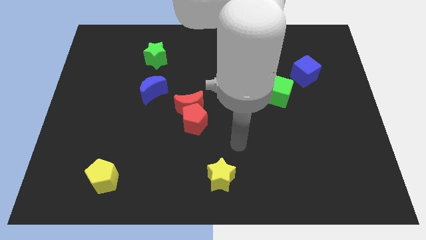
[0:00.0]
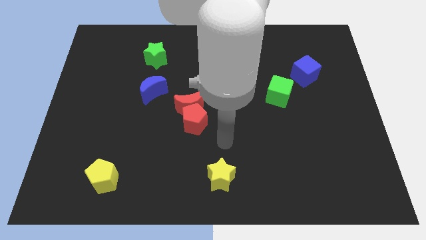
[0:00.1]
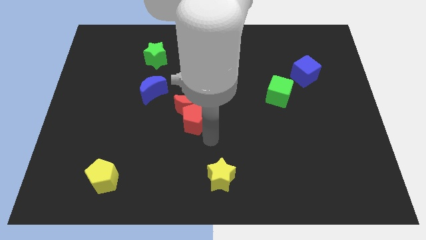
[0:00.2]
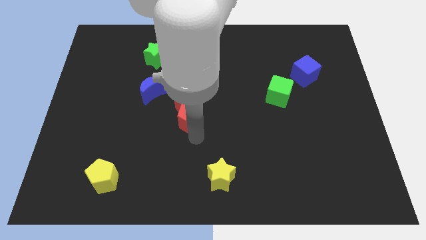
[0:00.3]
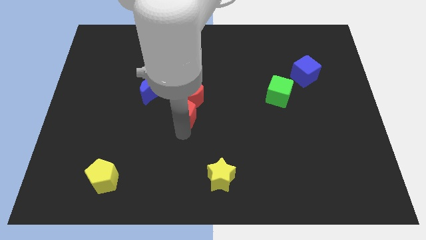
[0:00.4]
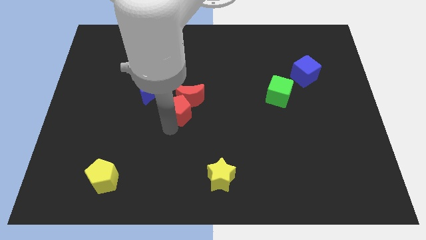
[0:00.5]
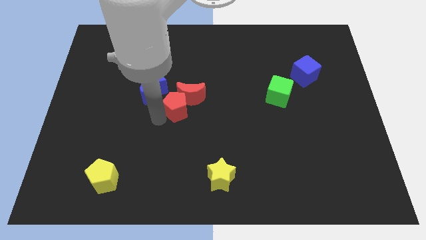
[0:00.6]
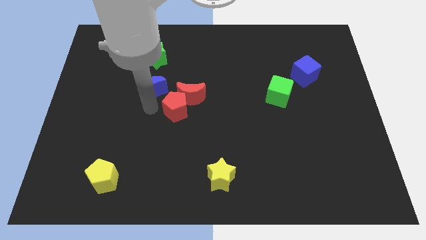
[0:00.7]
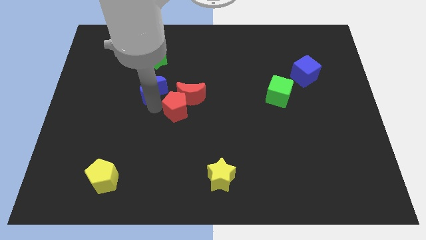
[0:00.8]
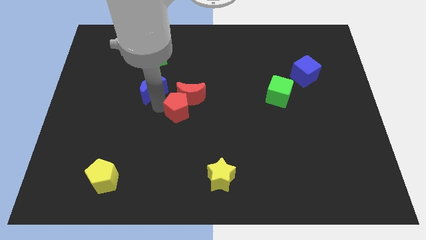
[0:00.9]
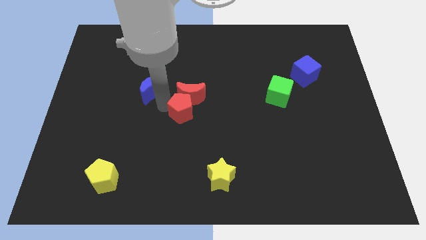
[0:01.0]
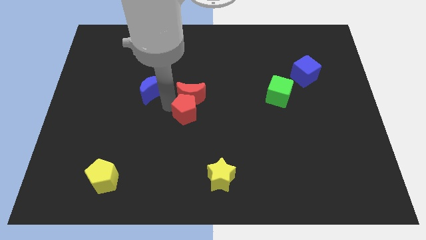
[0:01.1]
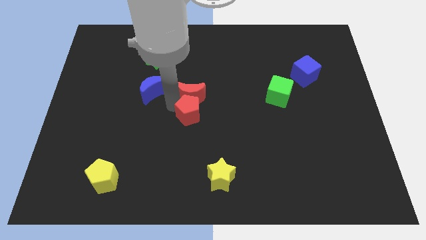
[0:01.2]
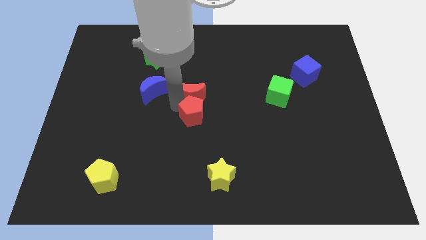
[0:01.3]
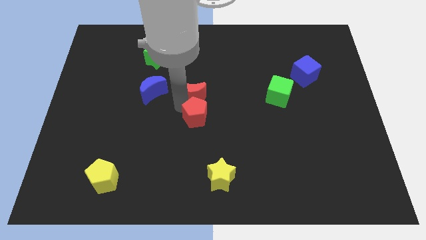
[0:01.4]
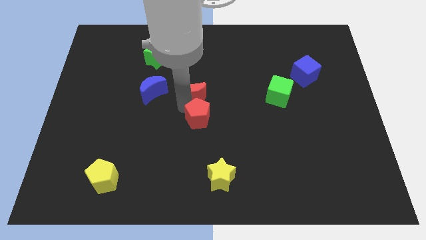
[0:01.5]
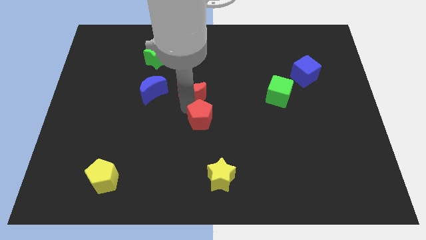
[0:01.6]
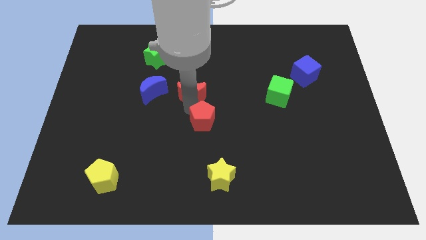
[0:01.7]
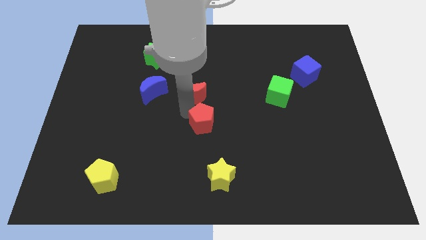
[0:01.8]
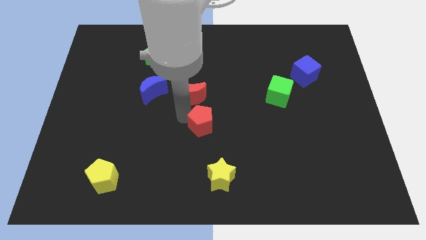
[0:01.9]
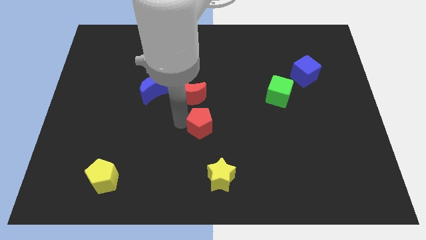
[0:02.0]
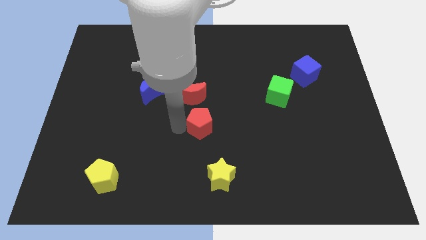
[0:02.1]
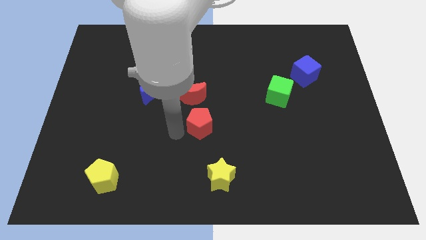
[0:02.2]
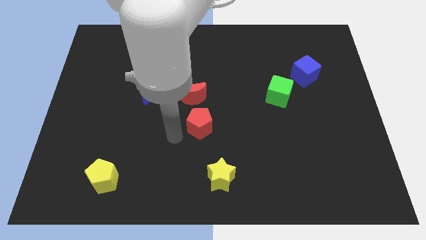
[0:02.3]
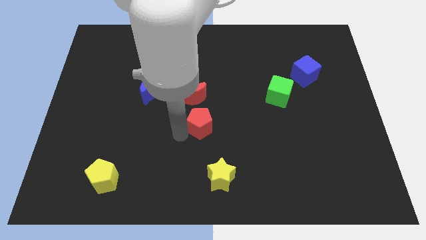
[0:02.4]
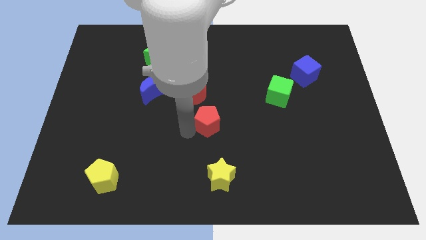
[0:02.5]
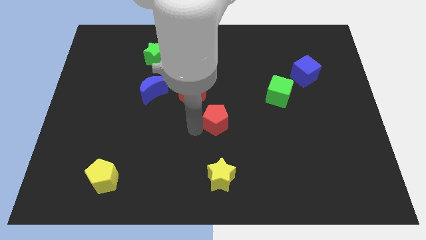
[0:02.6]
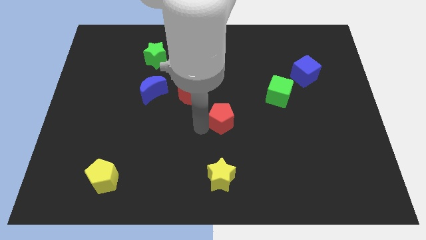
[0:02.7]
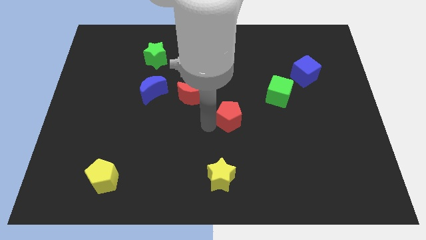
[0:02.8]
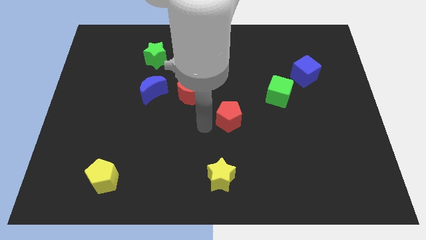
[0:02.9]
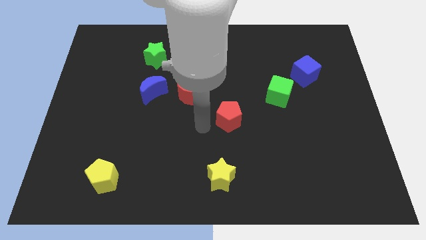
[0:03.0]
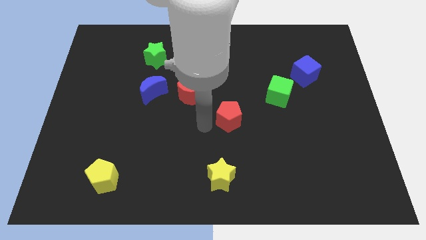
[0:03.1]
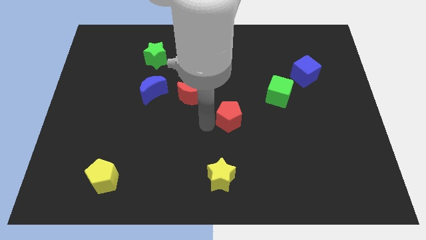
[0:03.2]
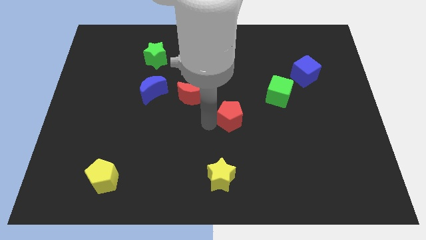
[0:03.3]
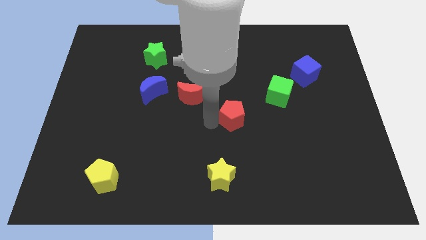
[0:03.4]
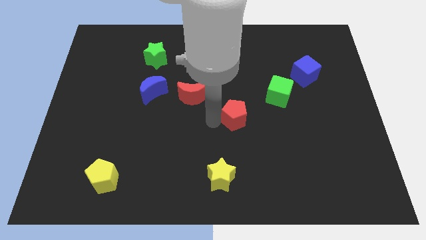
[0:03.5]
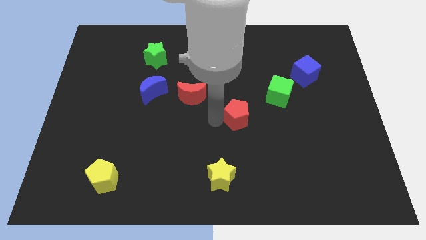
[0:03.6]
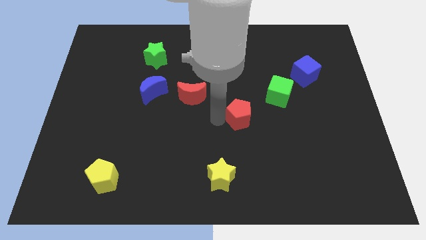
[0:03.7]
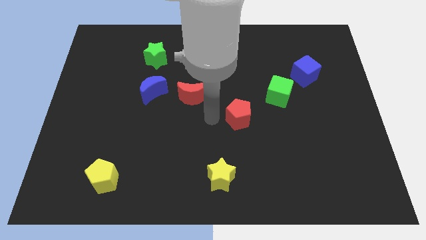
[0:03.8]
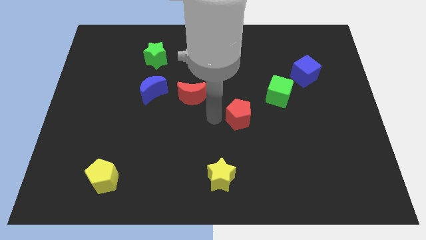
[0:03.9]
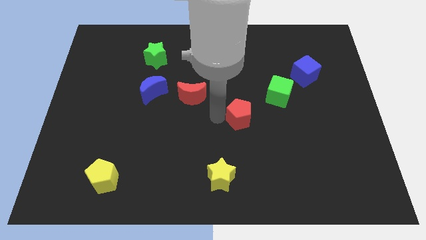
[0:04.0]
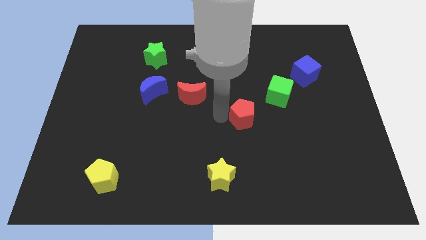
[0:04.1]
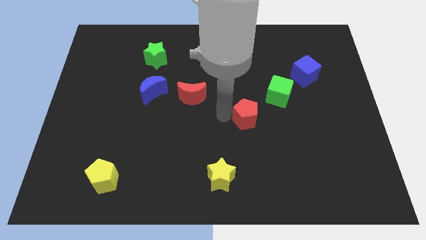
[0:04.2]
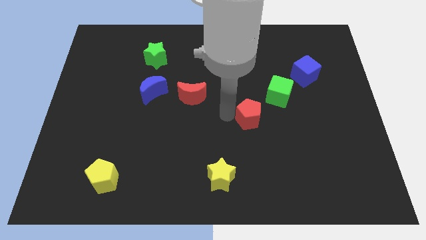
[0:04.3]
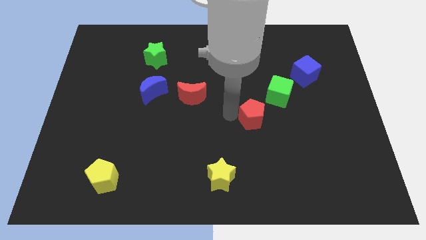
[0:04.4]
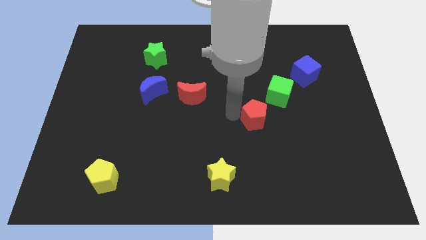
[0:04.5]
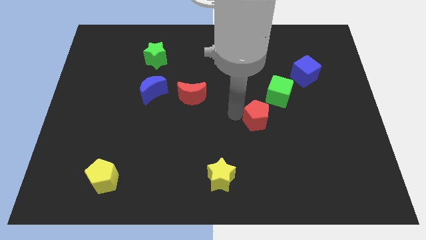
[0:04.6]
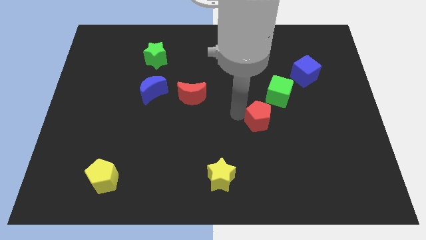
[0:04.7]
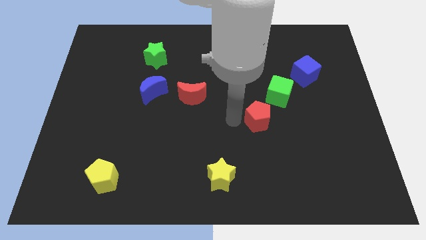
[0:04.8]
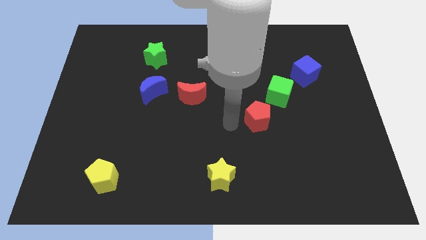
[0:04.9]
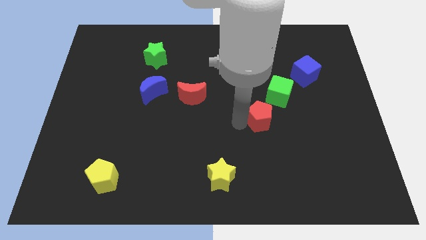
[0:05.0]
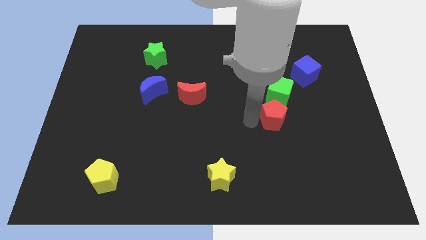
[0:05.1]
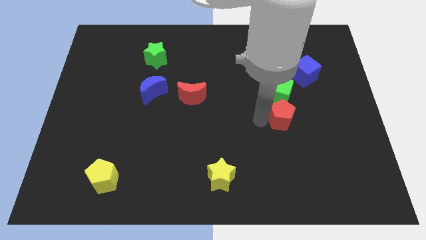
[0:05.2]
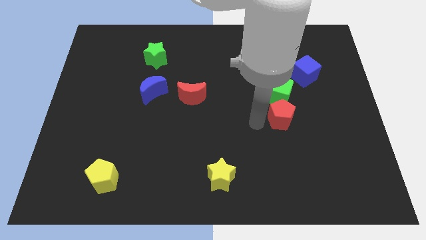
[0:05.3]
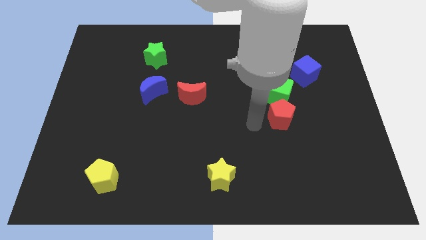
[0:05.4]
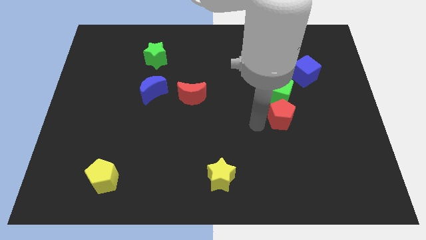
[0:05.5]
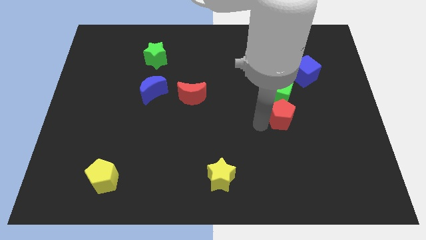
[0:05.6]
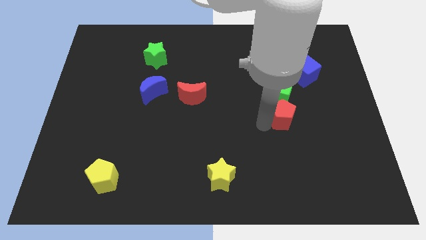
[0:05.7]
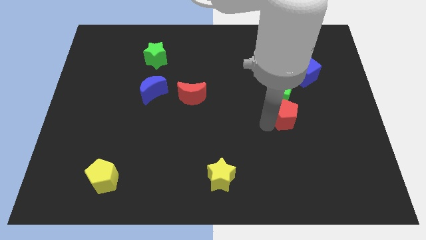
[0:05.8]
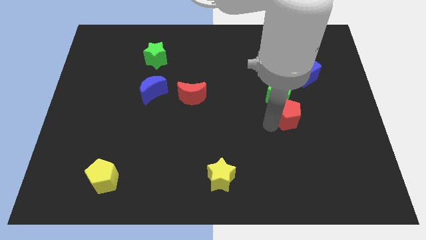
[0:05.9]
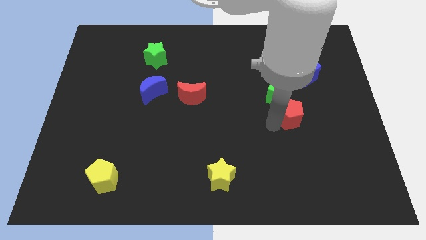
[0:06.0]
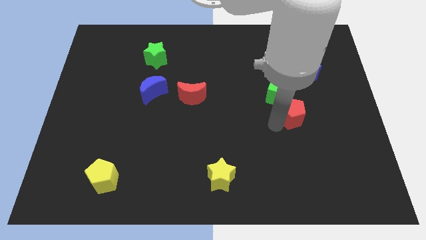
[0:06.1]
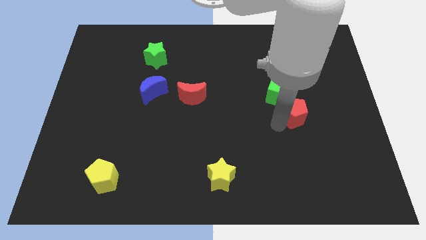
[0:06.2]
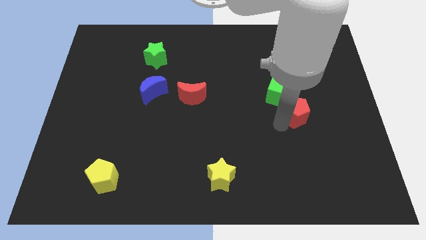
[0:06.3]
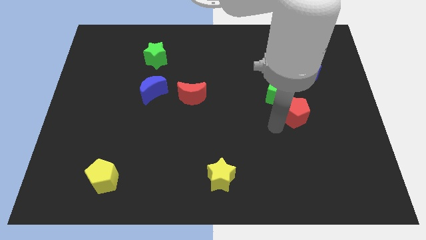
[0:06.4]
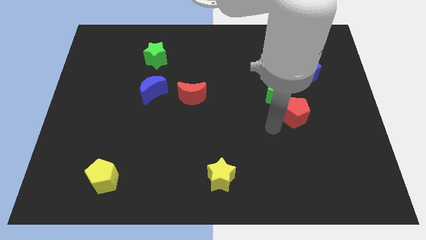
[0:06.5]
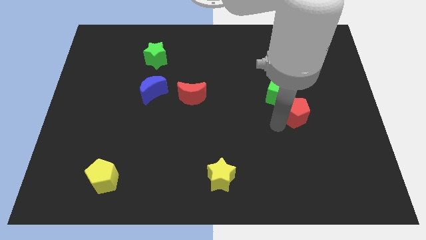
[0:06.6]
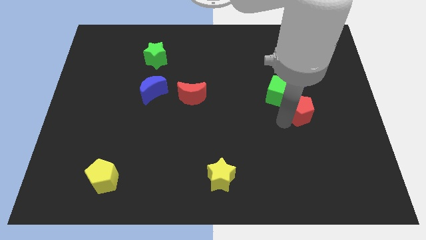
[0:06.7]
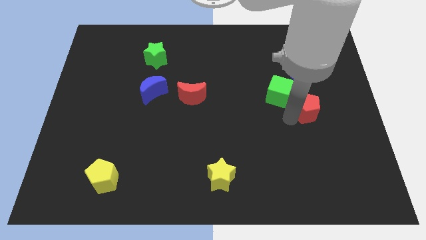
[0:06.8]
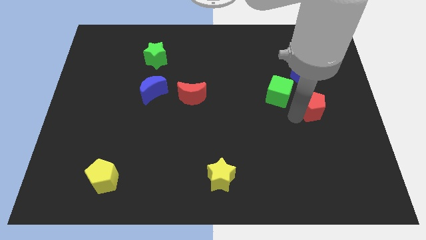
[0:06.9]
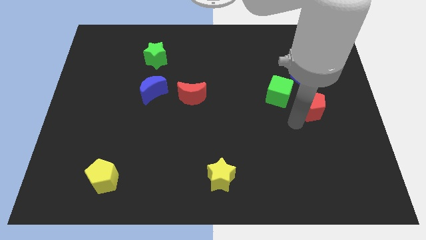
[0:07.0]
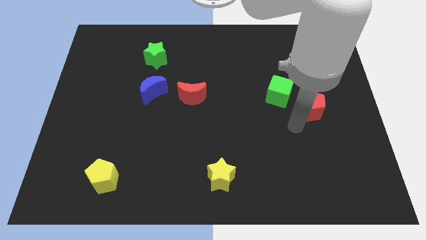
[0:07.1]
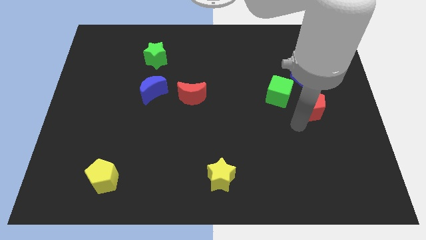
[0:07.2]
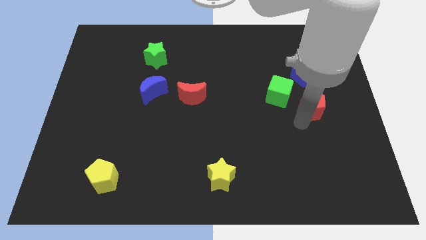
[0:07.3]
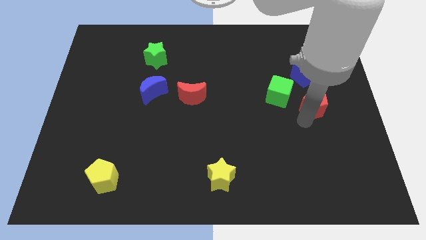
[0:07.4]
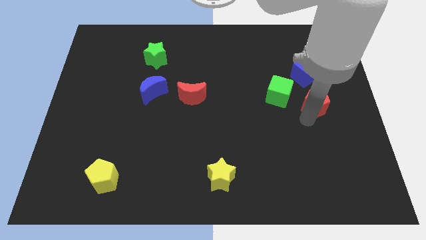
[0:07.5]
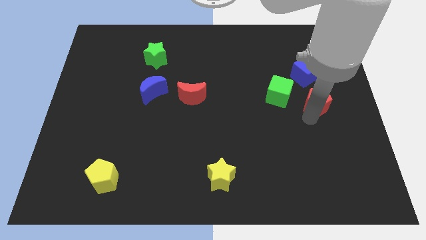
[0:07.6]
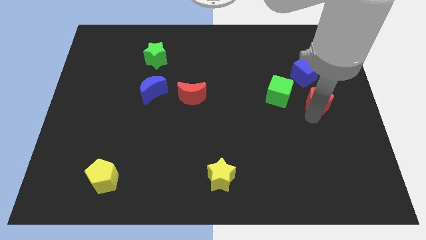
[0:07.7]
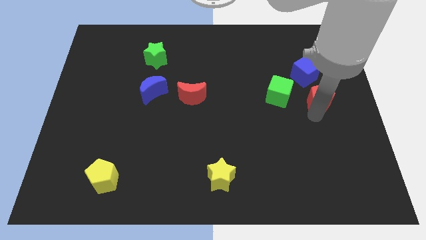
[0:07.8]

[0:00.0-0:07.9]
push the red pentagon to the bottom right of the blue cube

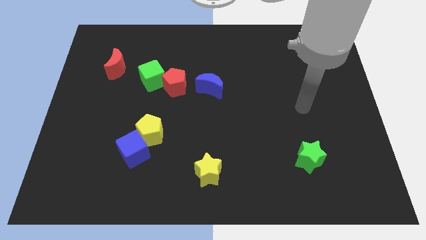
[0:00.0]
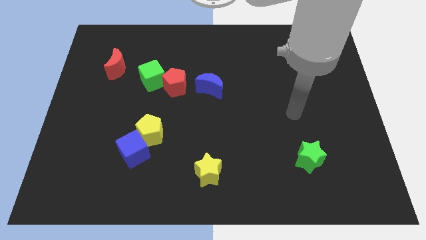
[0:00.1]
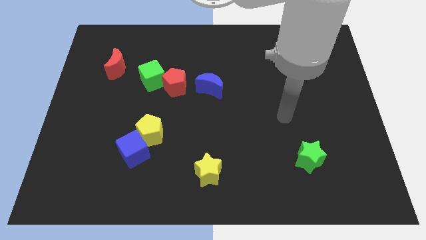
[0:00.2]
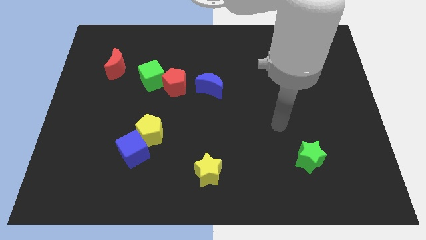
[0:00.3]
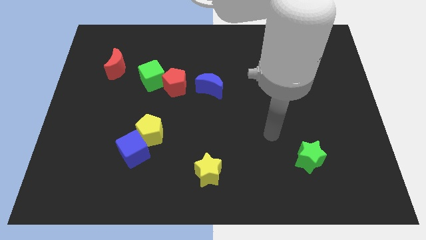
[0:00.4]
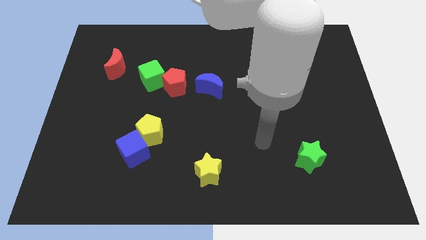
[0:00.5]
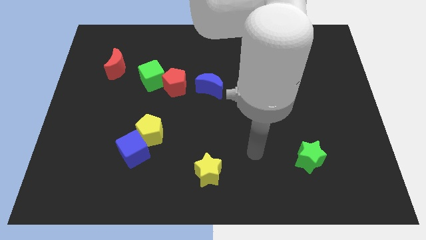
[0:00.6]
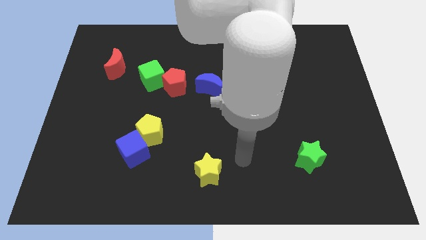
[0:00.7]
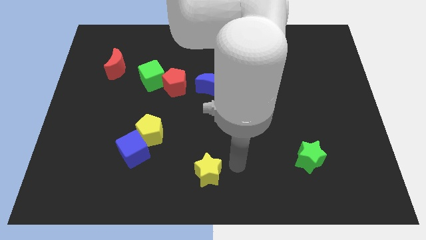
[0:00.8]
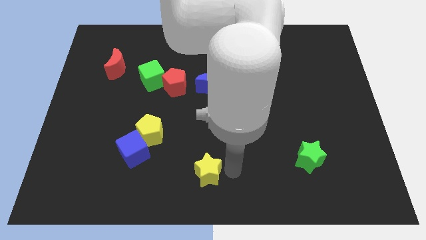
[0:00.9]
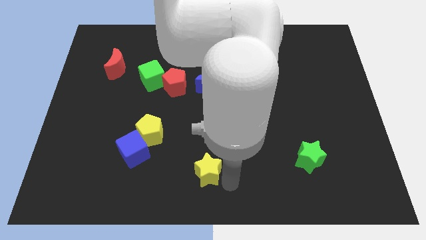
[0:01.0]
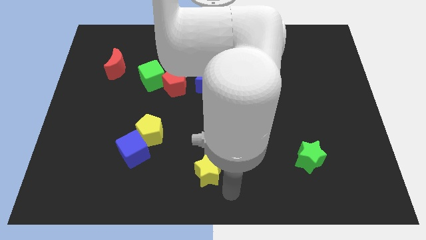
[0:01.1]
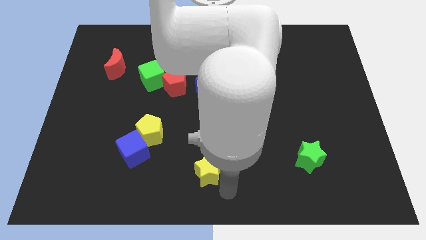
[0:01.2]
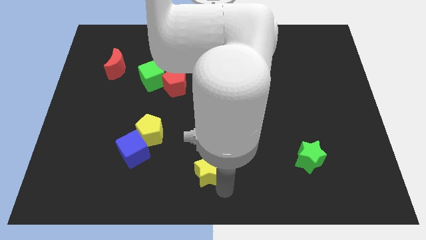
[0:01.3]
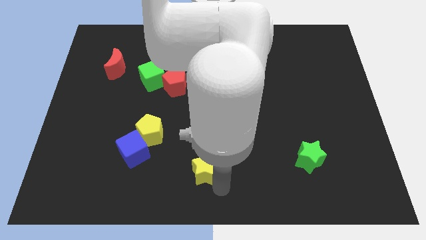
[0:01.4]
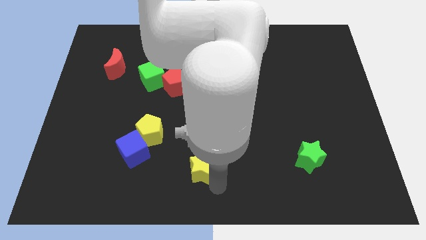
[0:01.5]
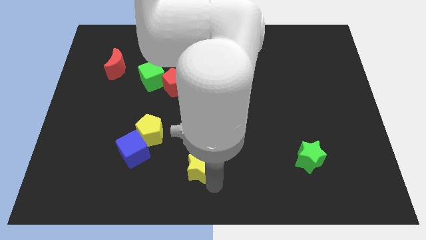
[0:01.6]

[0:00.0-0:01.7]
slide the yellow star to the right of the blue cube
